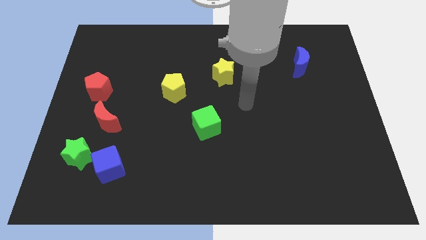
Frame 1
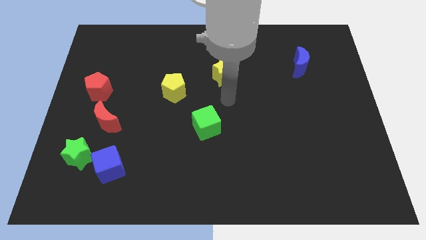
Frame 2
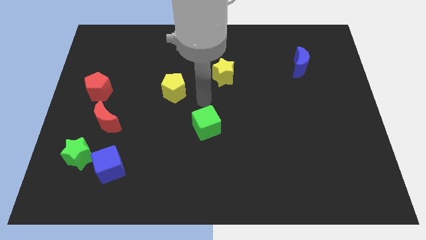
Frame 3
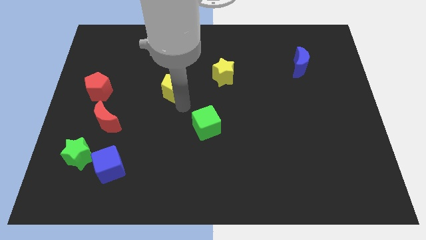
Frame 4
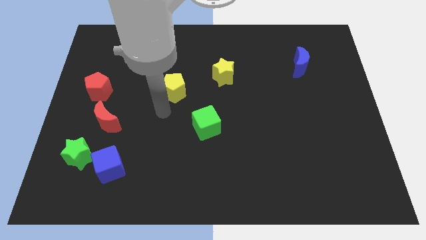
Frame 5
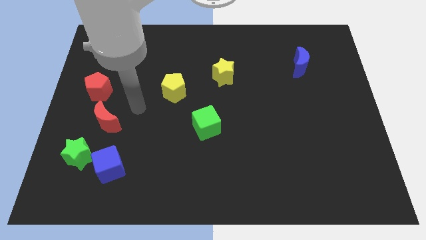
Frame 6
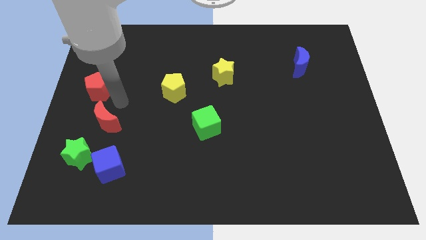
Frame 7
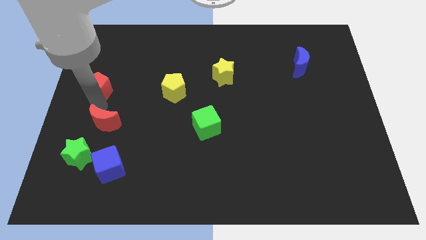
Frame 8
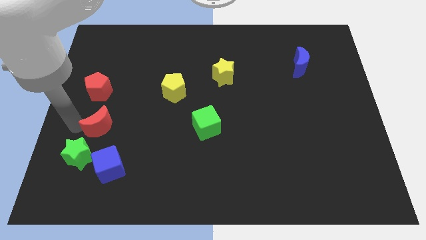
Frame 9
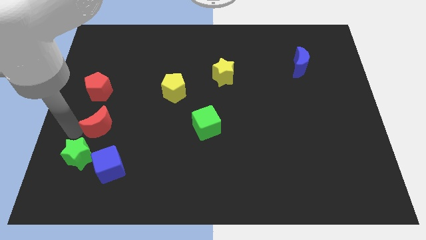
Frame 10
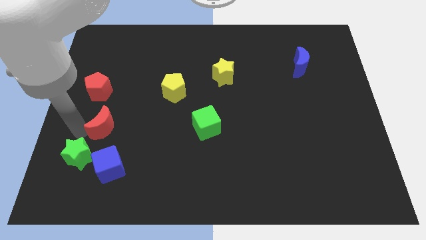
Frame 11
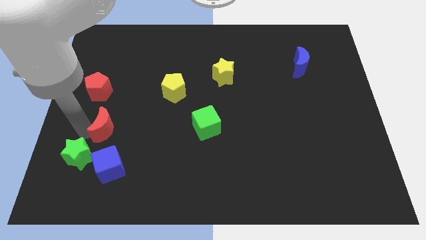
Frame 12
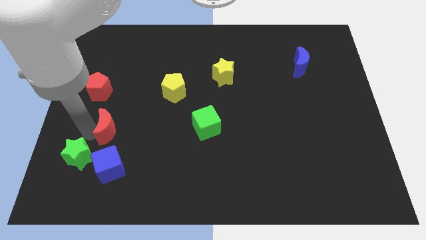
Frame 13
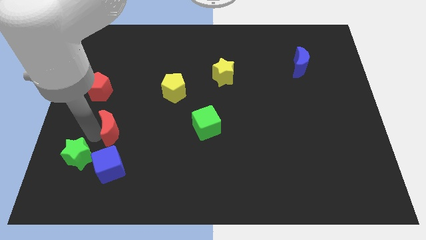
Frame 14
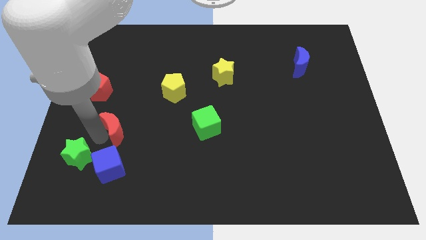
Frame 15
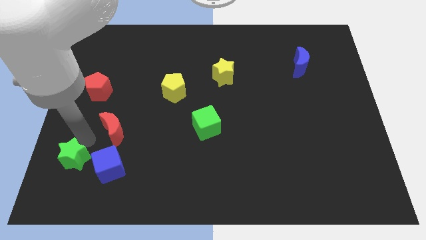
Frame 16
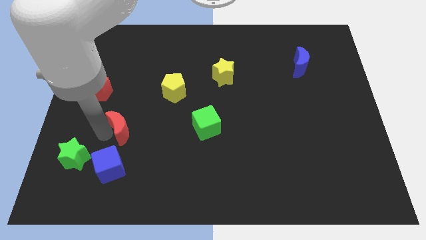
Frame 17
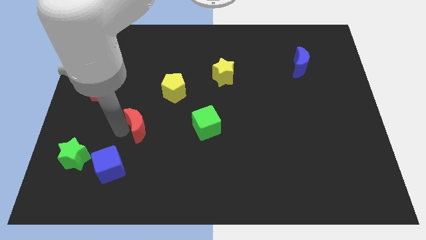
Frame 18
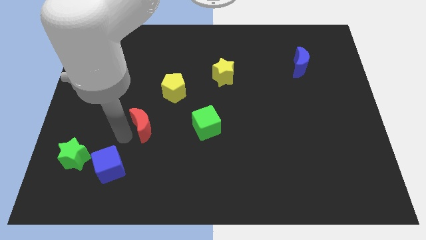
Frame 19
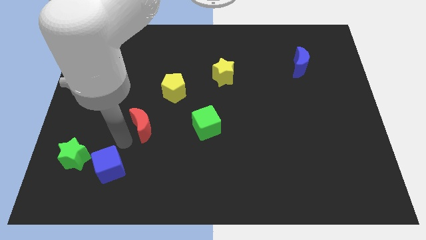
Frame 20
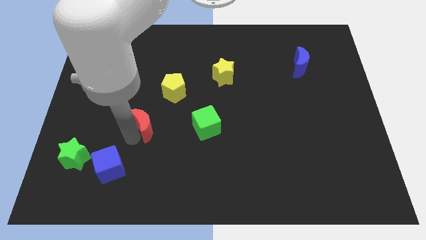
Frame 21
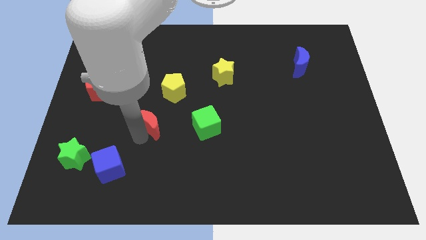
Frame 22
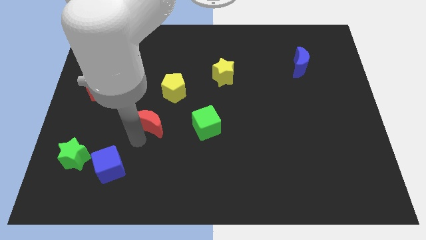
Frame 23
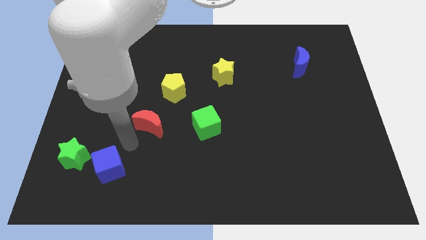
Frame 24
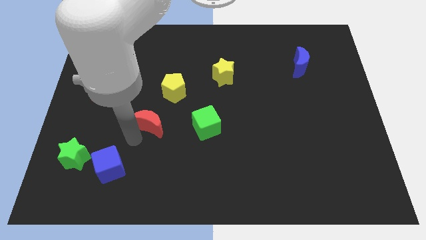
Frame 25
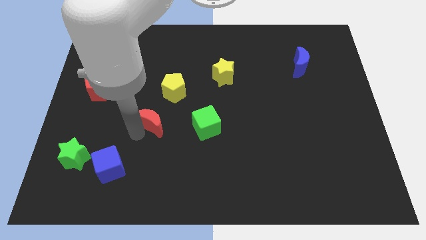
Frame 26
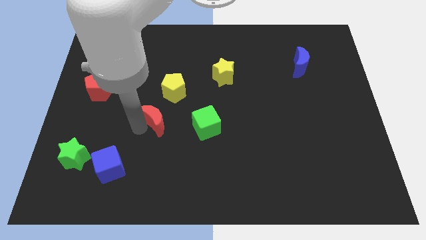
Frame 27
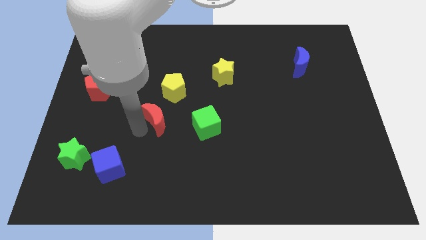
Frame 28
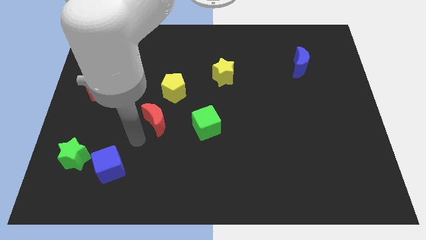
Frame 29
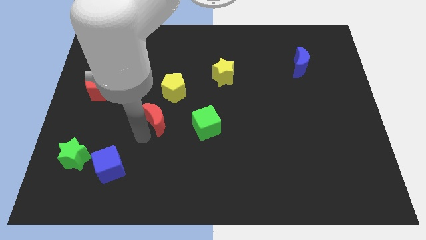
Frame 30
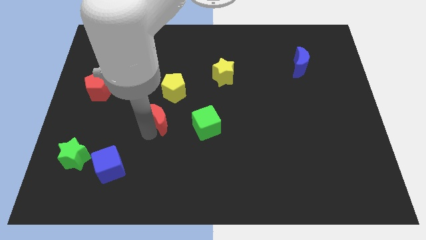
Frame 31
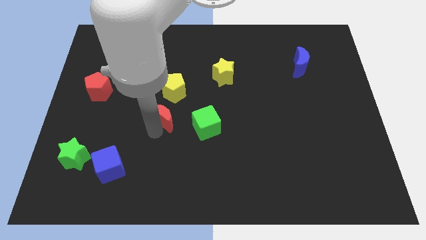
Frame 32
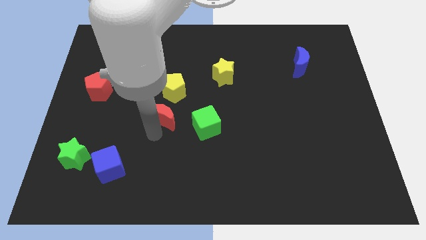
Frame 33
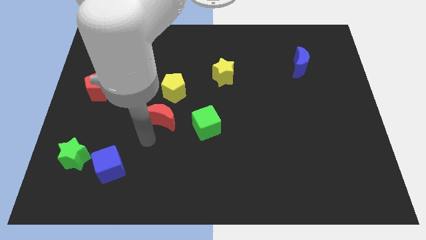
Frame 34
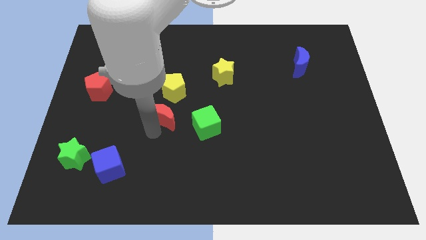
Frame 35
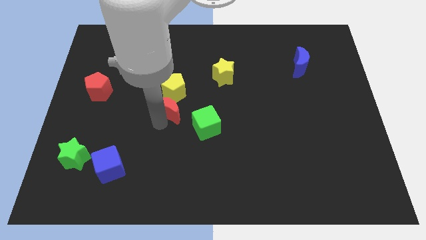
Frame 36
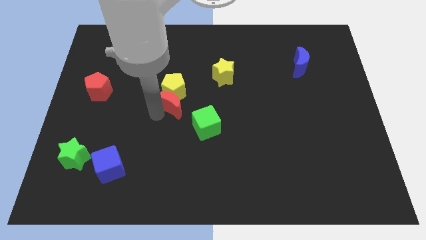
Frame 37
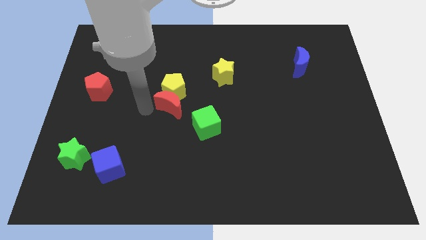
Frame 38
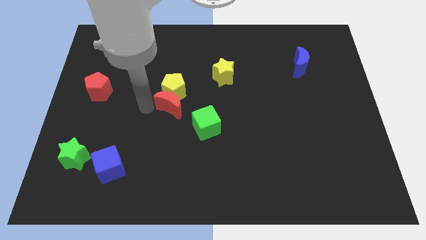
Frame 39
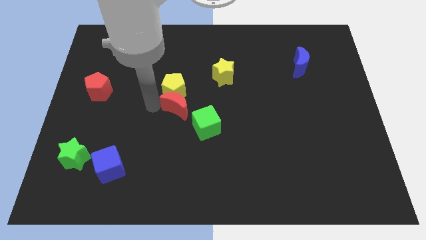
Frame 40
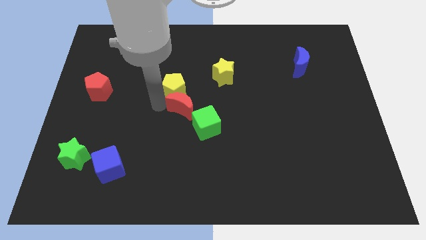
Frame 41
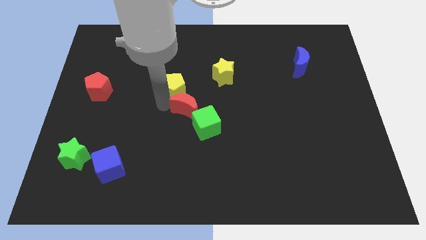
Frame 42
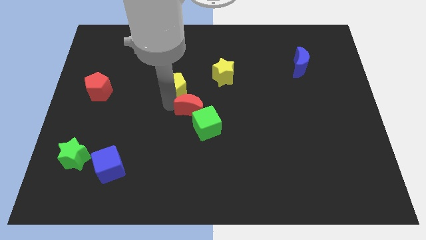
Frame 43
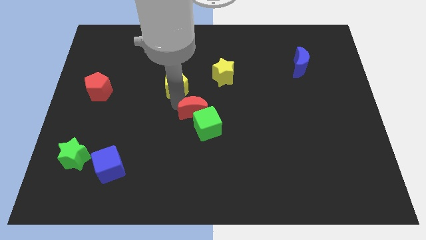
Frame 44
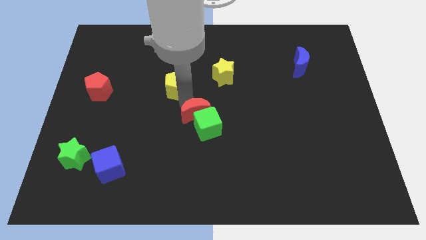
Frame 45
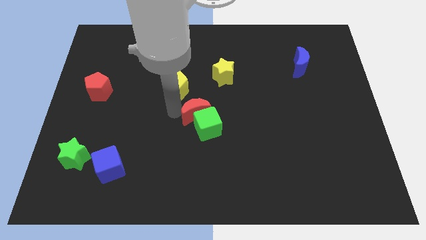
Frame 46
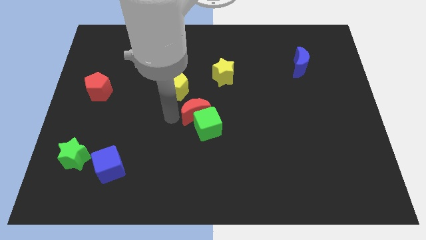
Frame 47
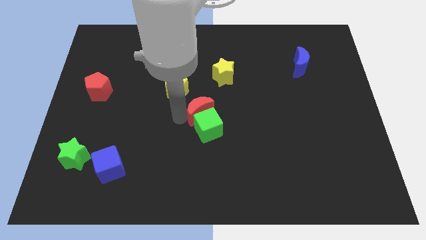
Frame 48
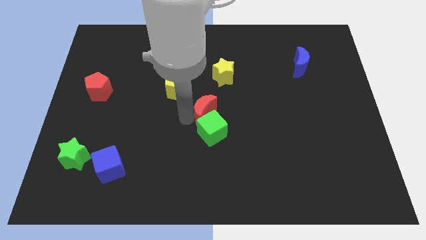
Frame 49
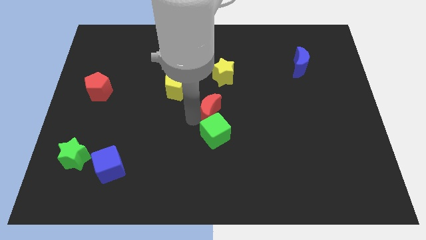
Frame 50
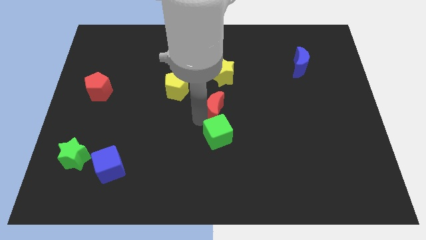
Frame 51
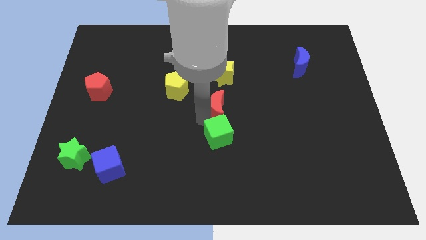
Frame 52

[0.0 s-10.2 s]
put the red moon to the top right side of the green cube

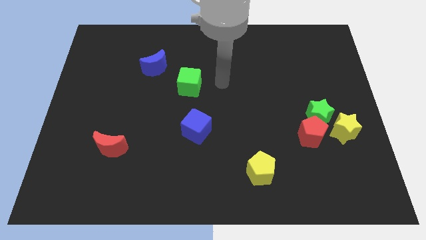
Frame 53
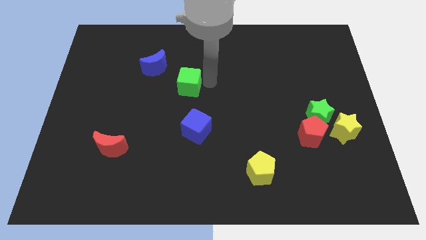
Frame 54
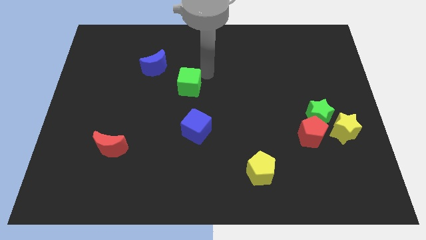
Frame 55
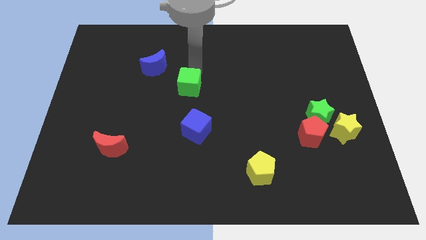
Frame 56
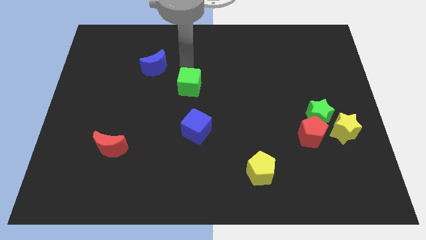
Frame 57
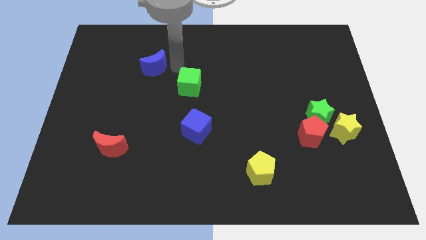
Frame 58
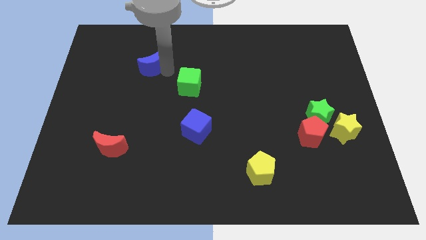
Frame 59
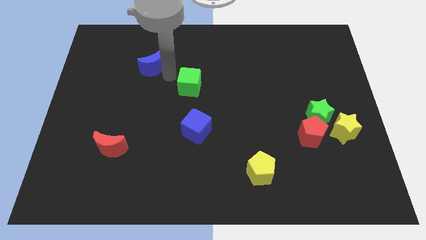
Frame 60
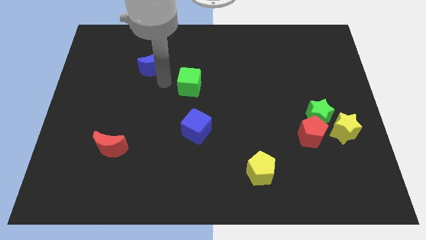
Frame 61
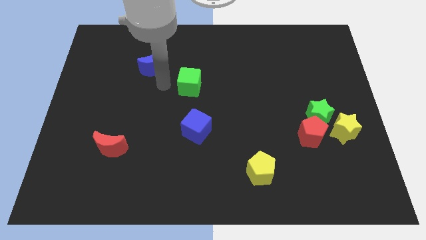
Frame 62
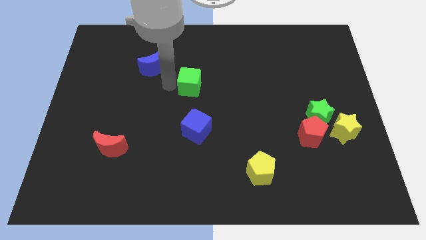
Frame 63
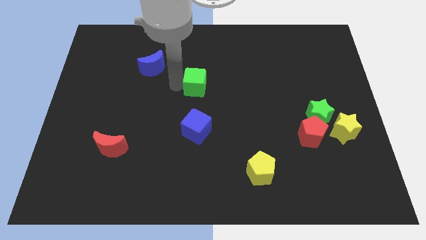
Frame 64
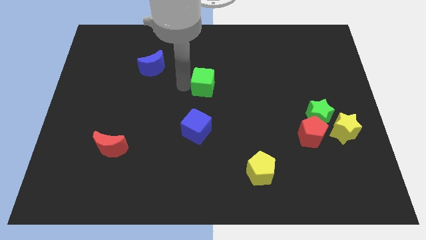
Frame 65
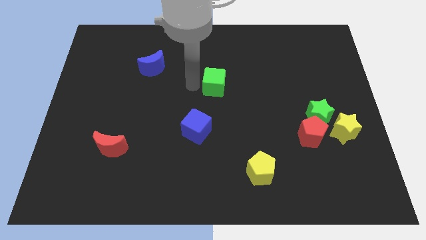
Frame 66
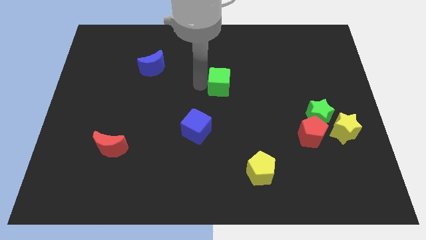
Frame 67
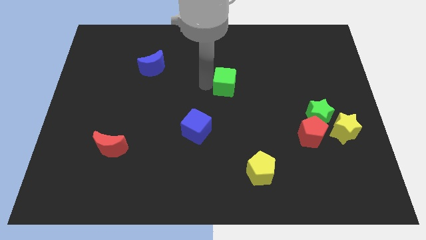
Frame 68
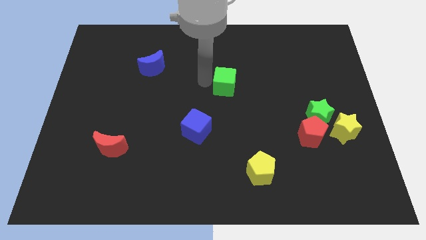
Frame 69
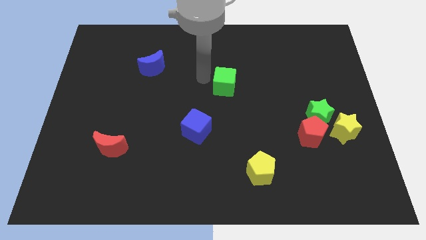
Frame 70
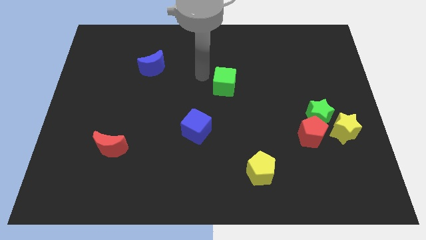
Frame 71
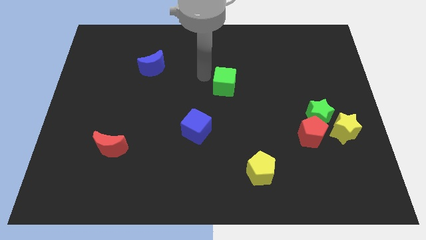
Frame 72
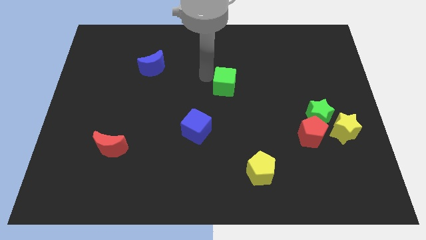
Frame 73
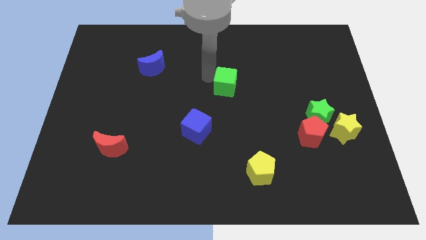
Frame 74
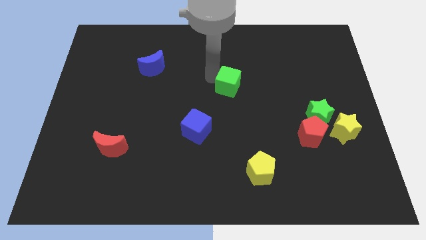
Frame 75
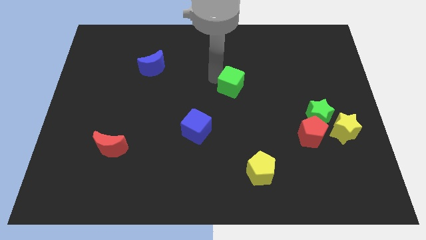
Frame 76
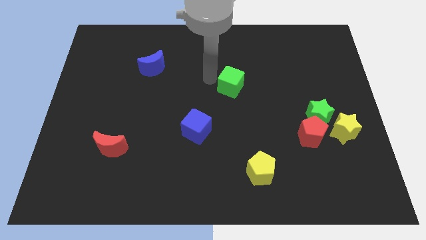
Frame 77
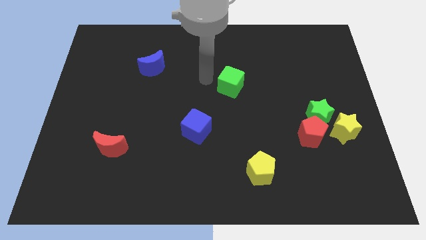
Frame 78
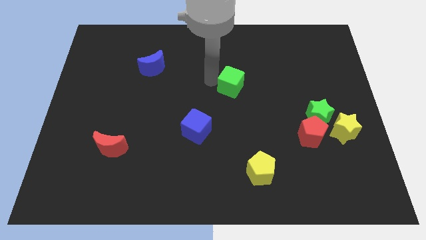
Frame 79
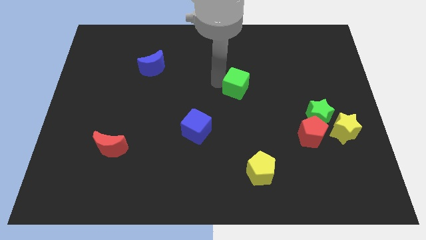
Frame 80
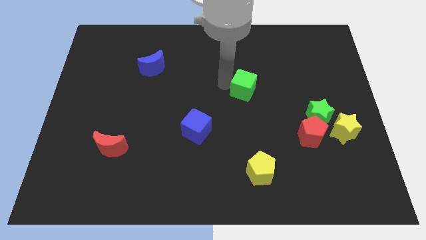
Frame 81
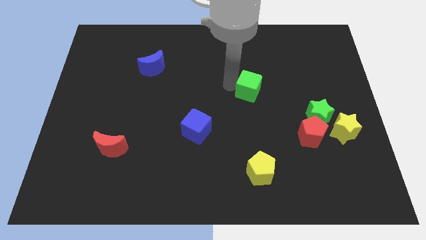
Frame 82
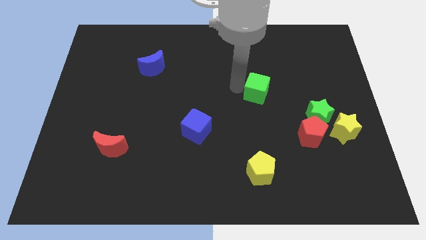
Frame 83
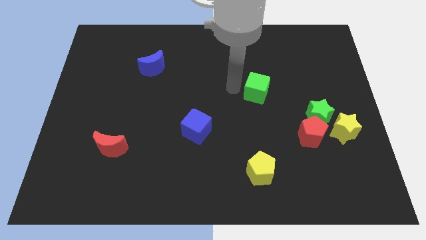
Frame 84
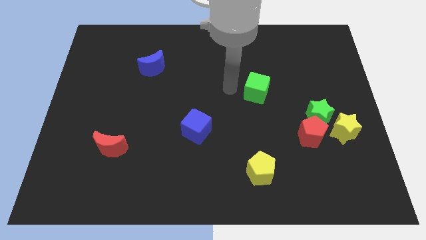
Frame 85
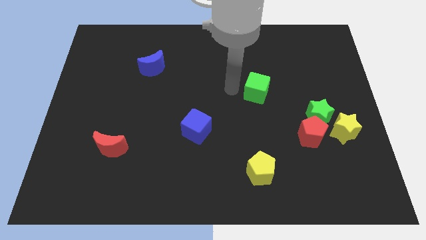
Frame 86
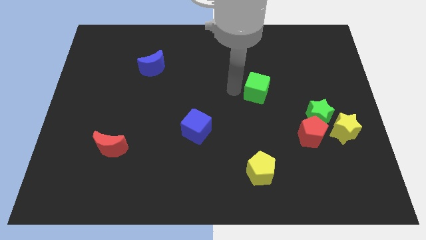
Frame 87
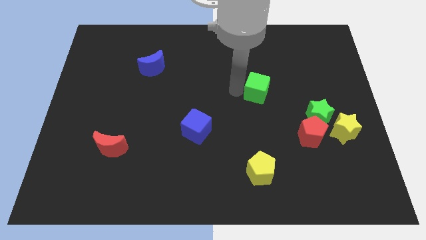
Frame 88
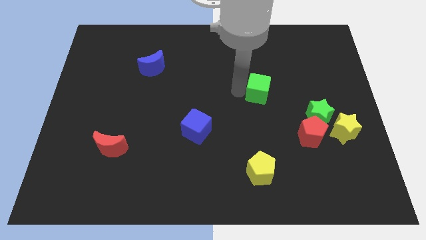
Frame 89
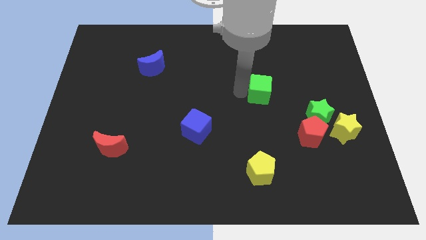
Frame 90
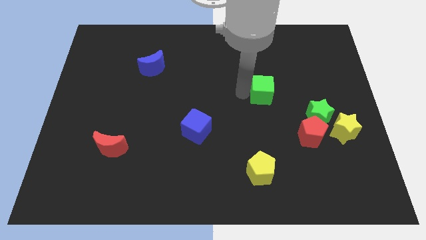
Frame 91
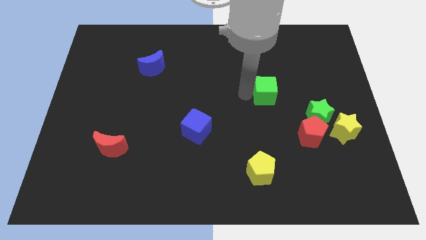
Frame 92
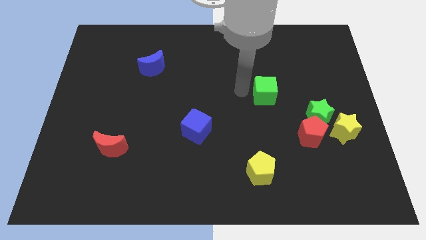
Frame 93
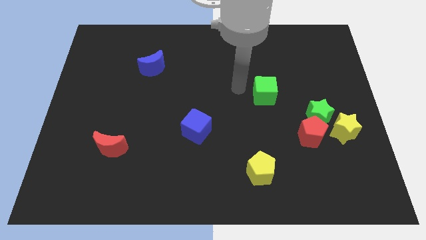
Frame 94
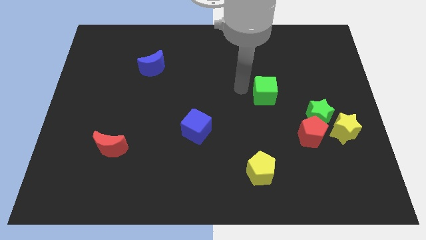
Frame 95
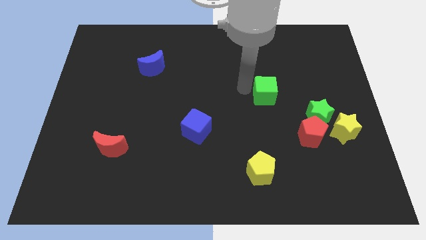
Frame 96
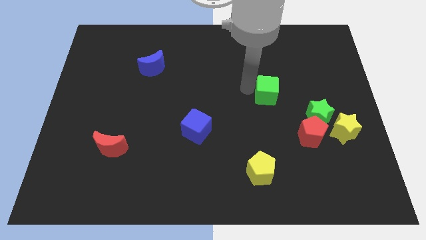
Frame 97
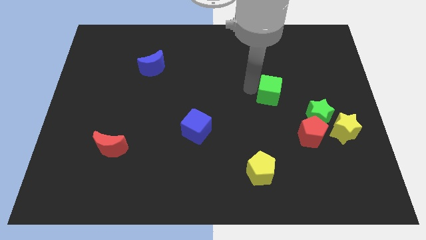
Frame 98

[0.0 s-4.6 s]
put the green cube to the top left side of the green star
